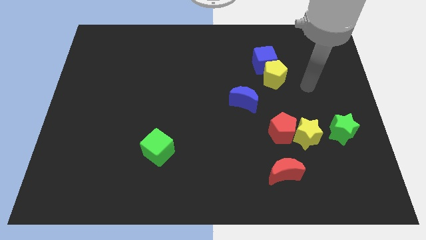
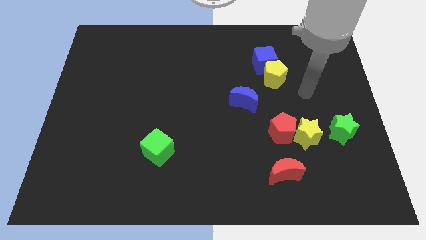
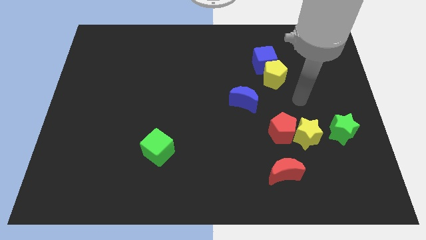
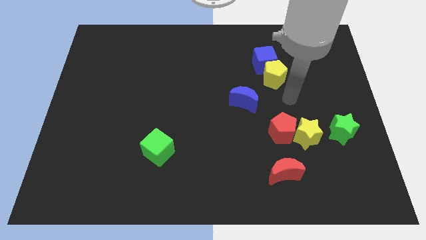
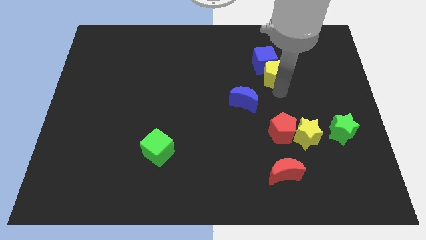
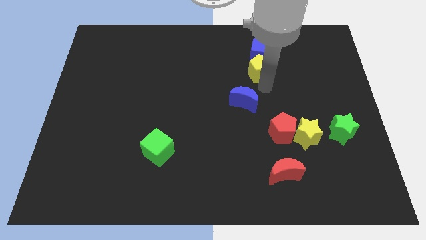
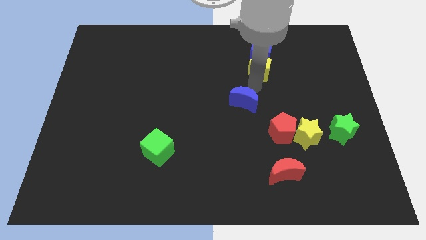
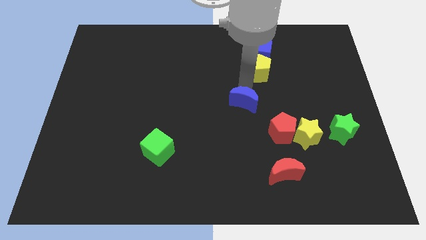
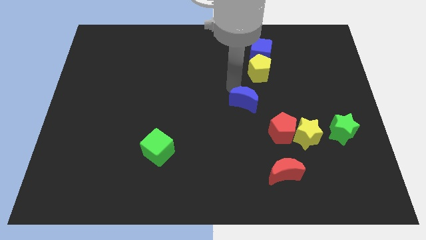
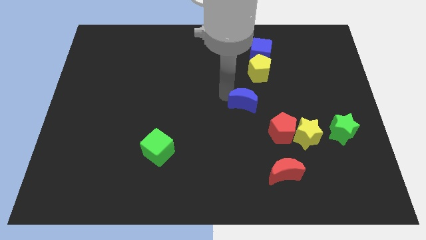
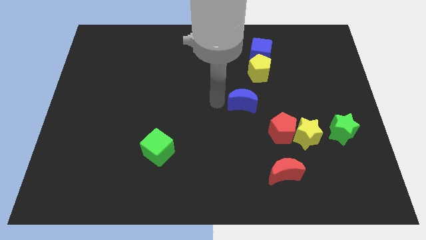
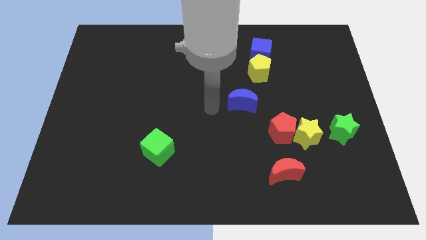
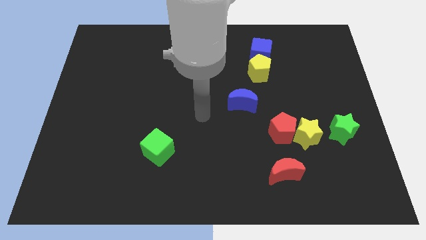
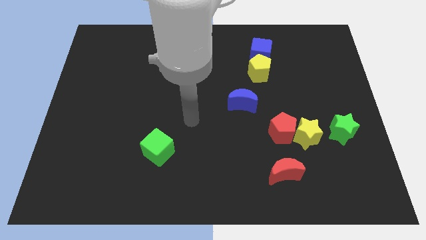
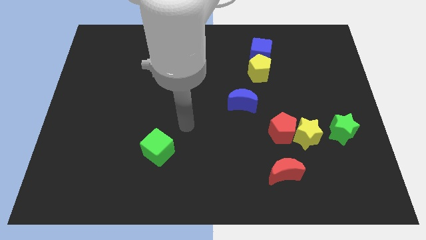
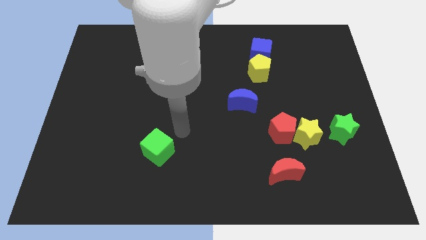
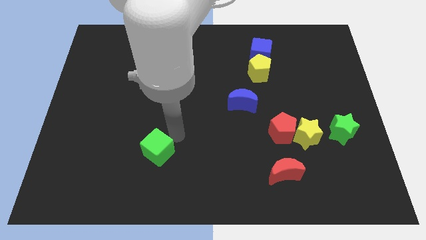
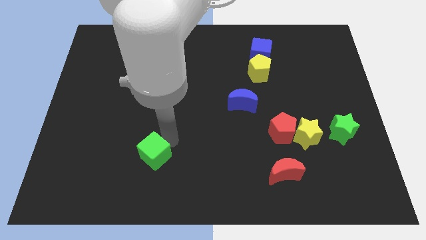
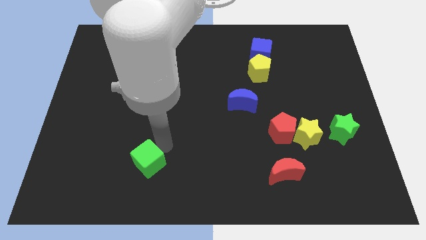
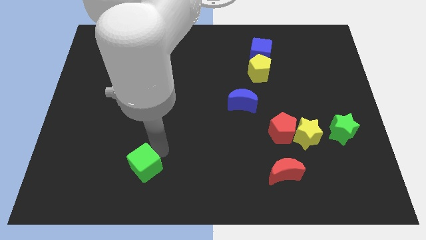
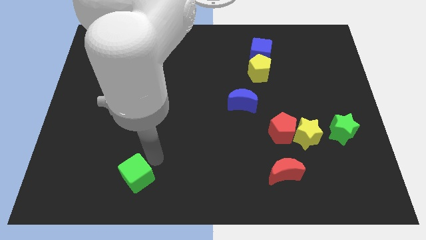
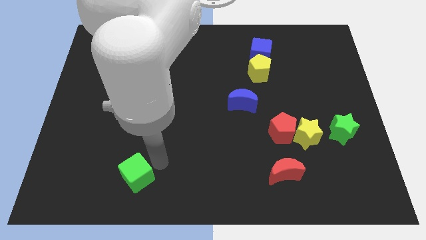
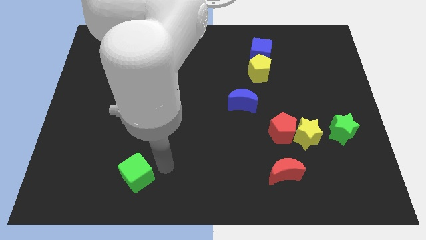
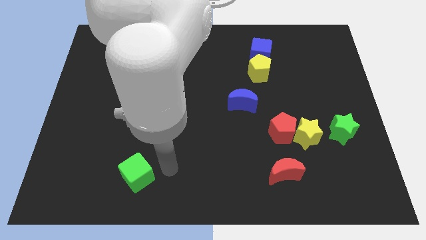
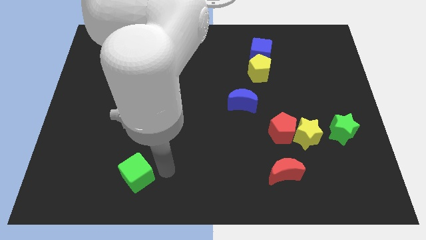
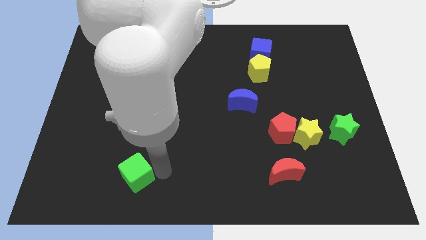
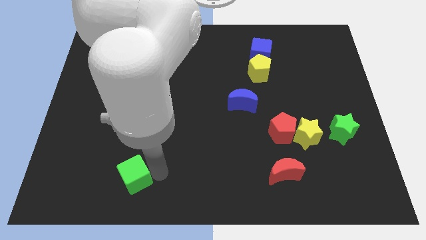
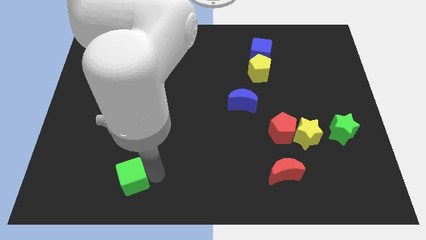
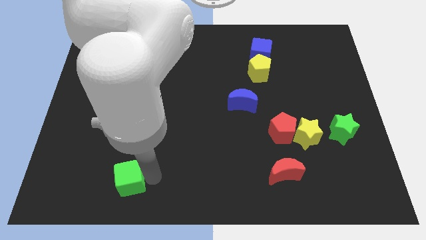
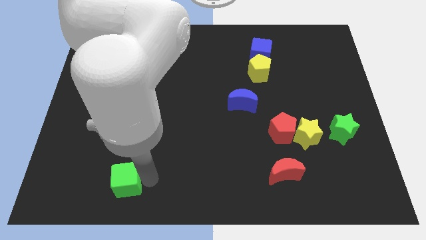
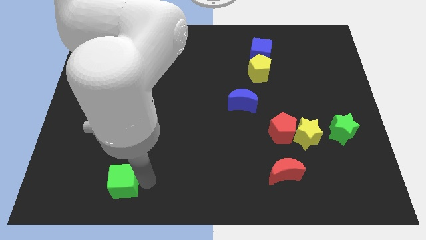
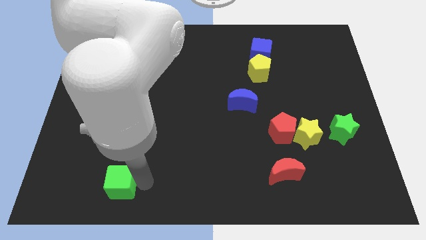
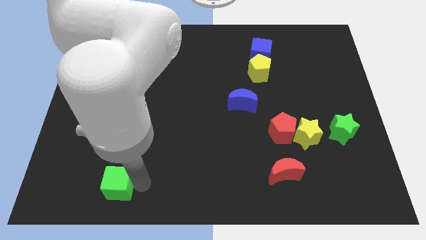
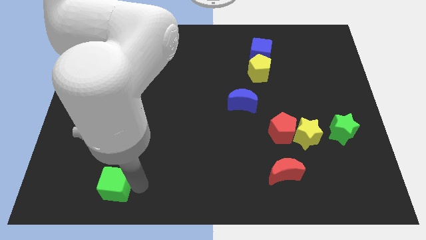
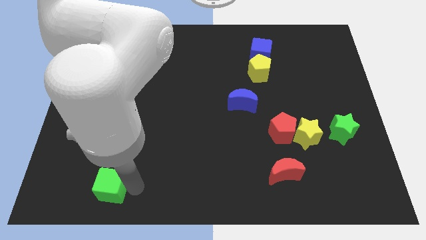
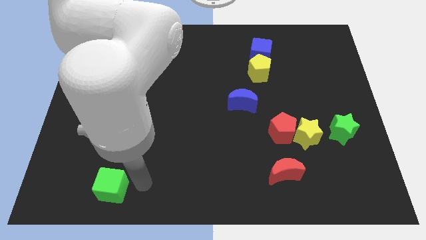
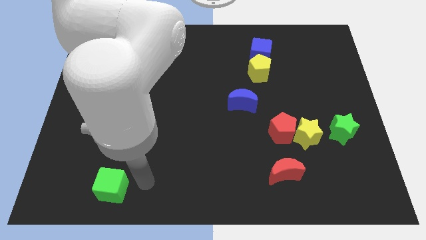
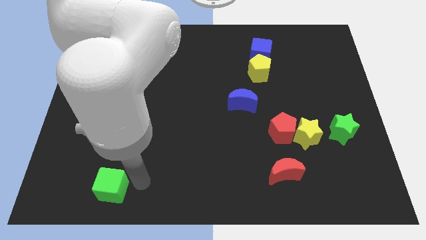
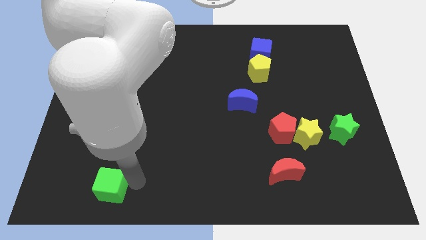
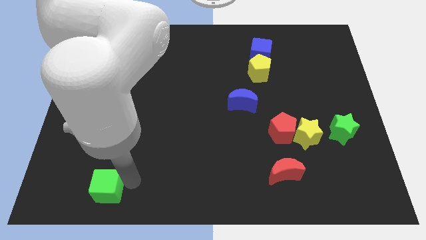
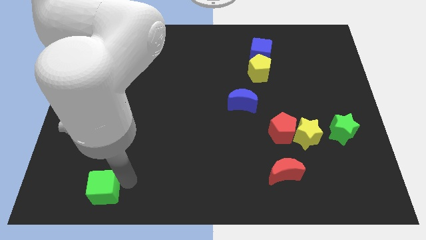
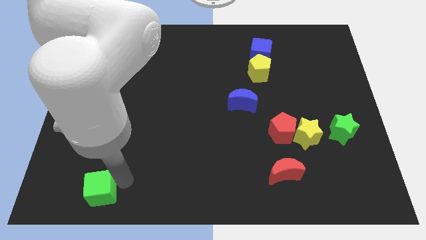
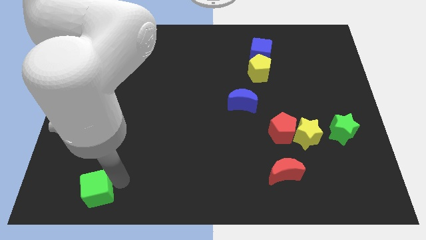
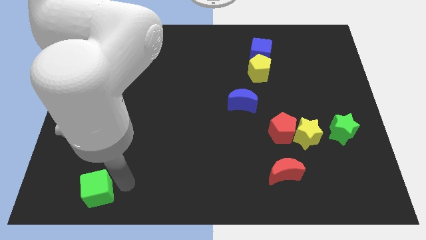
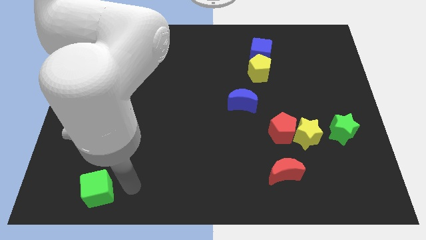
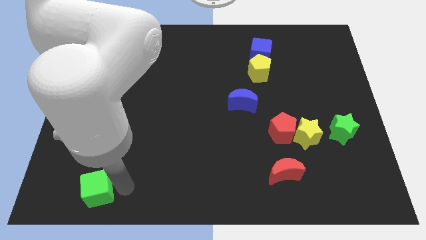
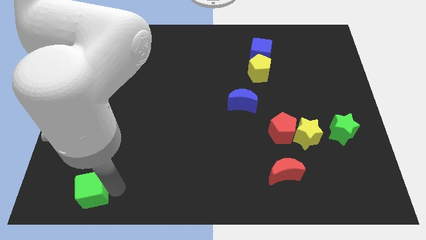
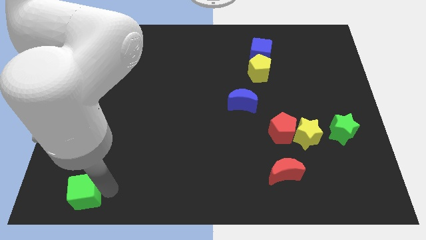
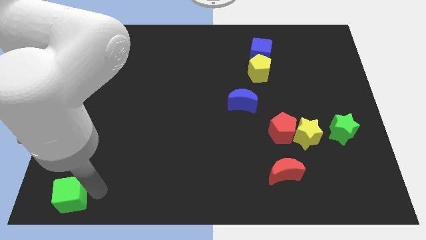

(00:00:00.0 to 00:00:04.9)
push the green cube to the bottom left of the board

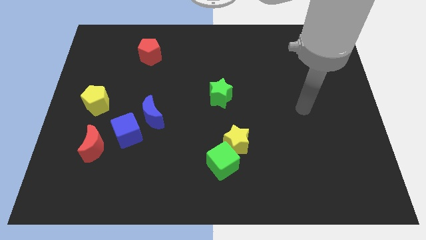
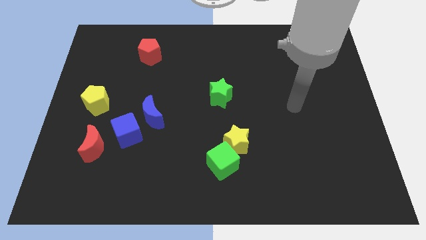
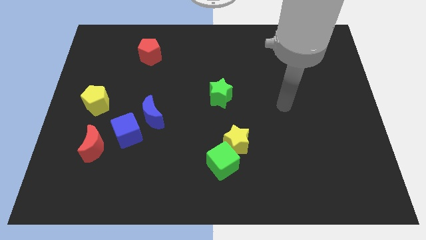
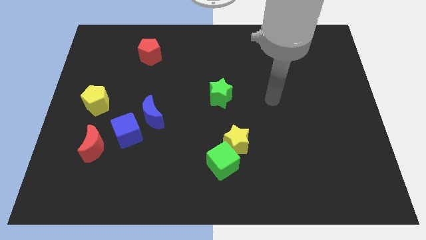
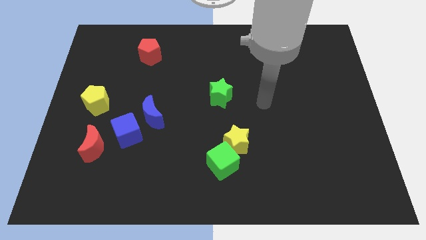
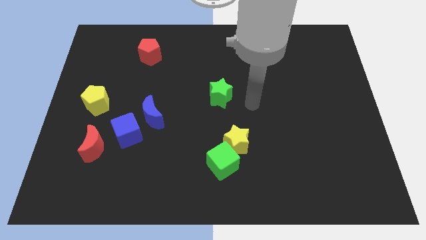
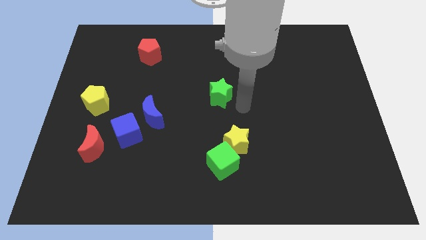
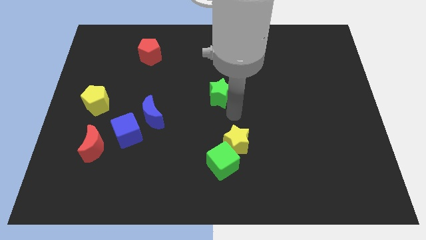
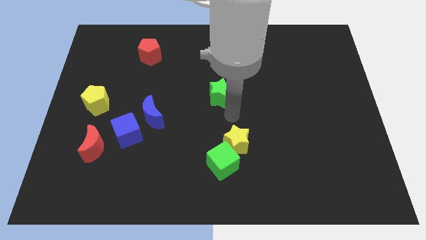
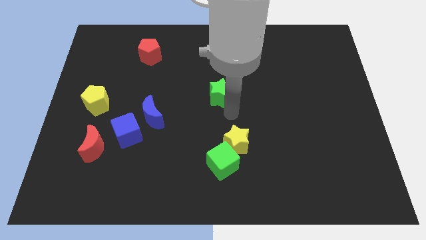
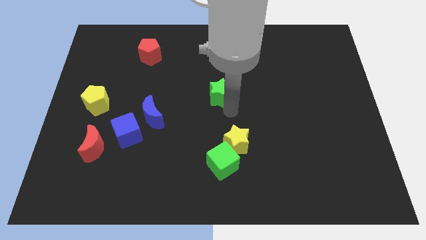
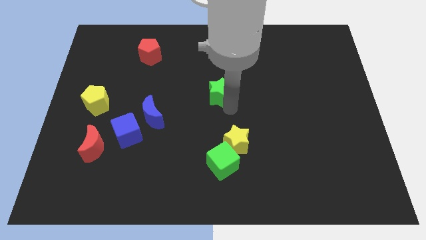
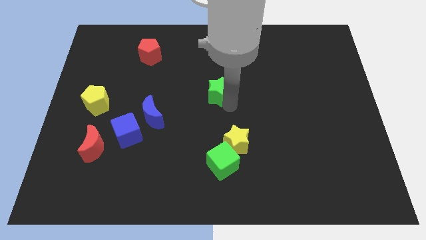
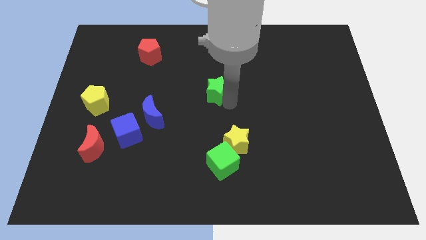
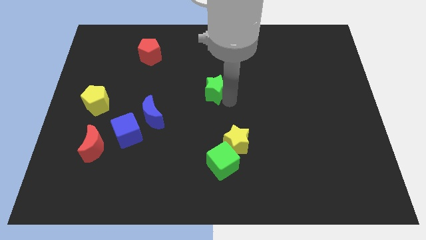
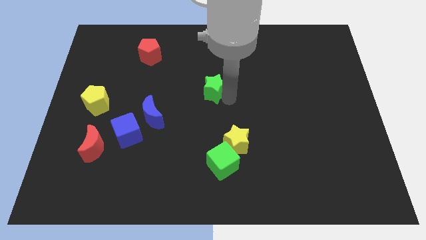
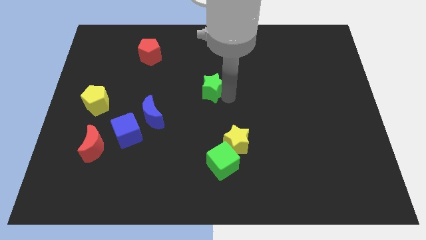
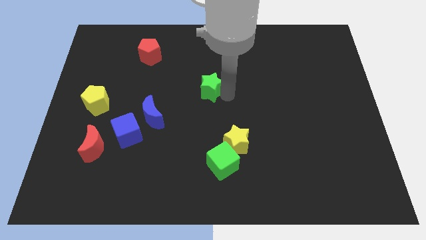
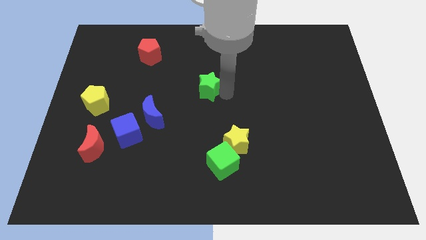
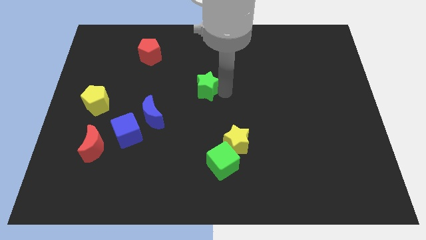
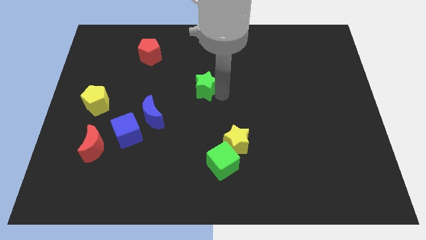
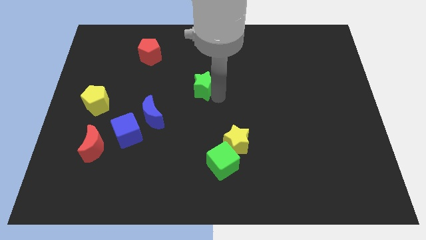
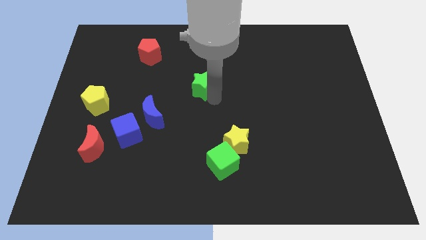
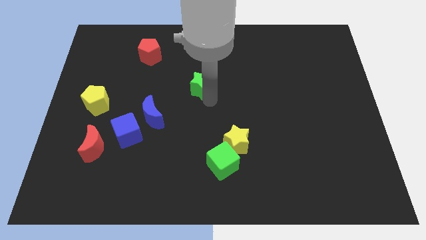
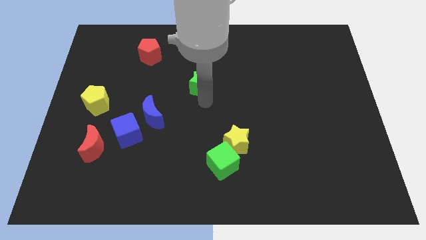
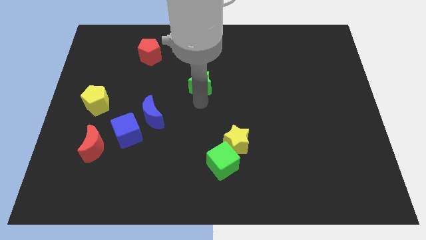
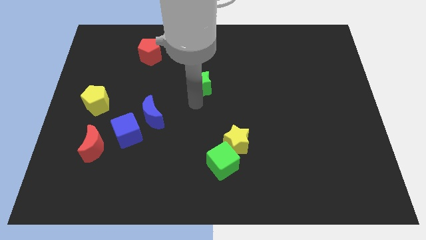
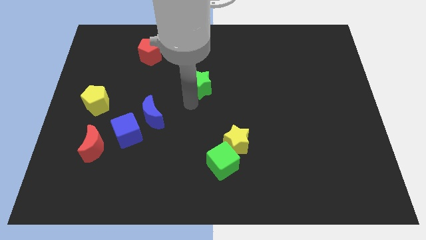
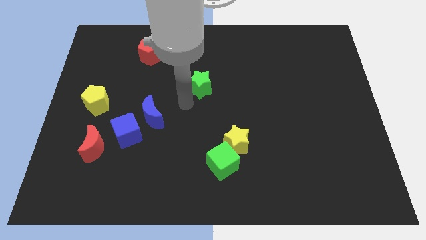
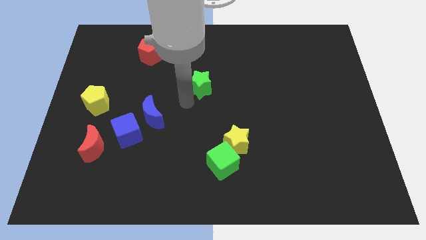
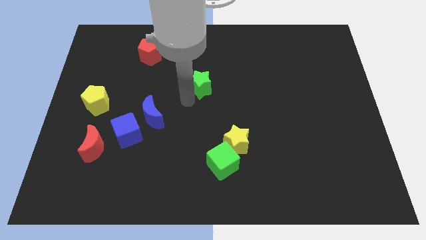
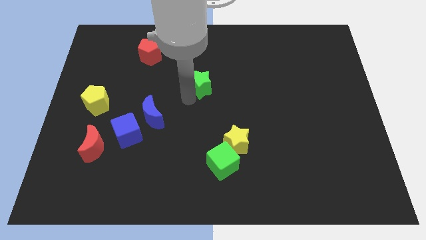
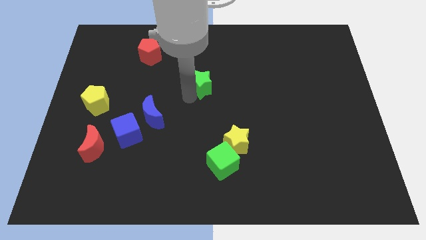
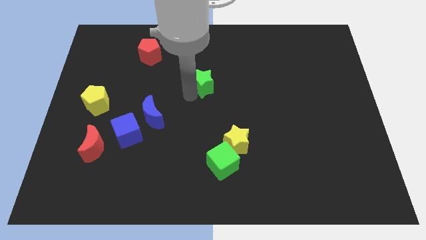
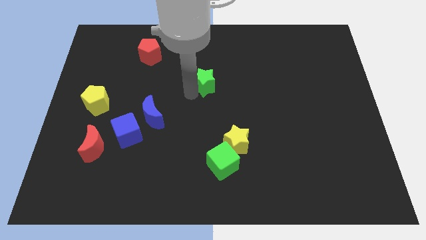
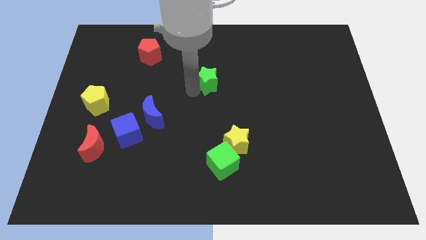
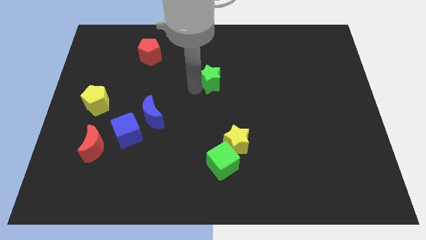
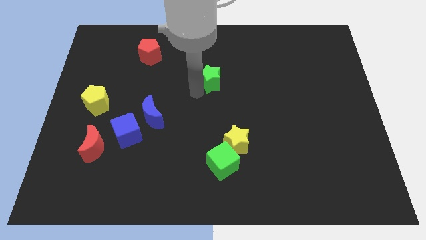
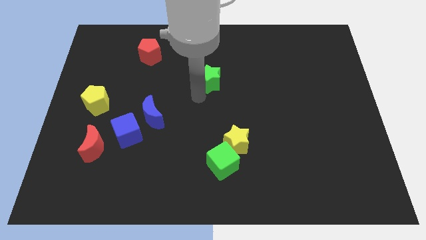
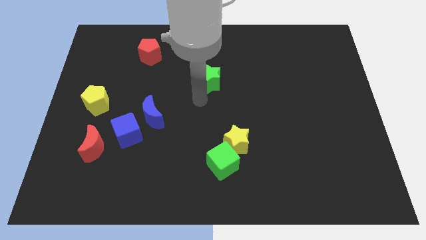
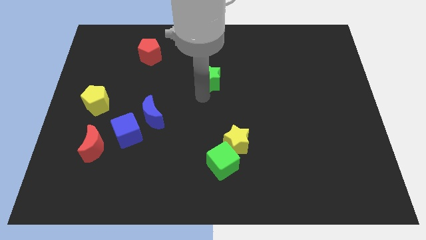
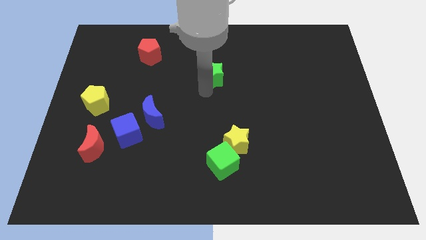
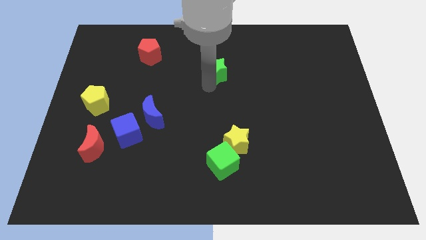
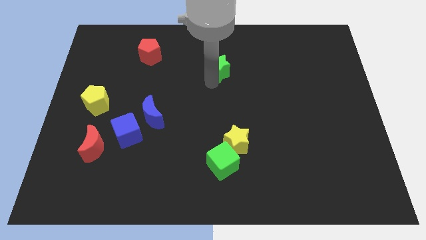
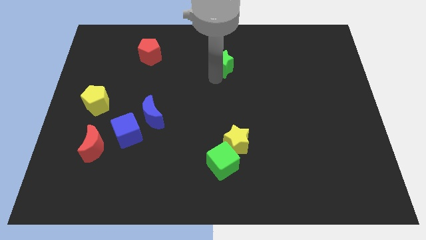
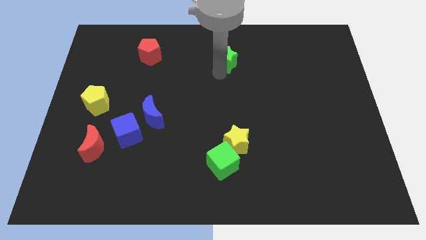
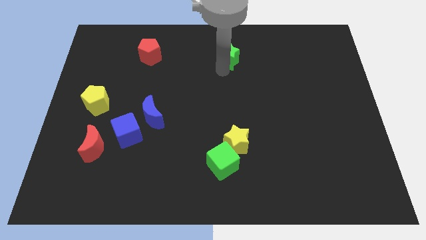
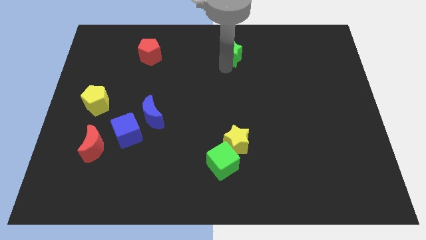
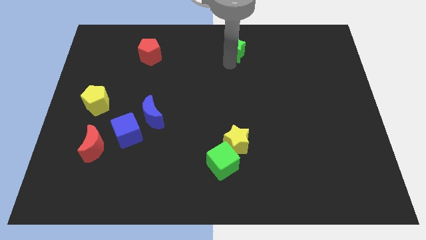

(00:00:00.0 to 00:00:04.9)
push the green star to the towards your base
